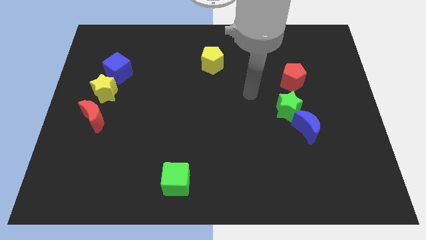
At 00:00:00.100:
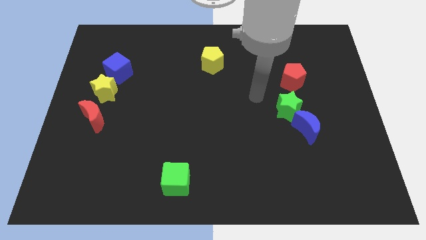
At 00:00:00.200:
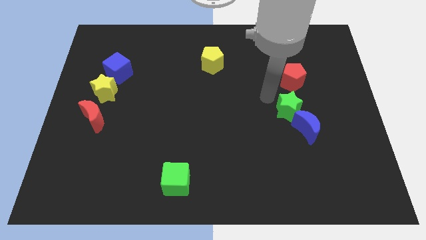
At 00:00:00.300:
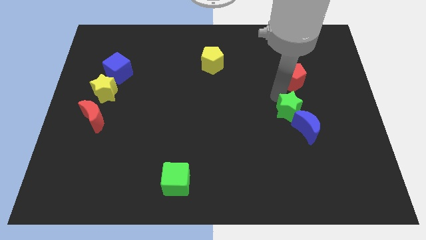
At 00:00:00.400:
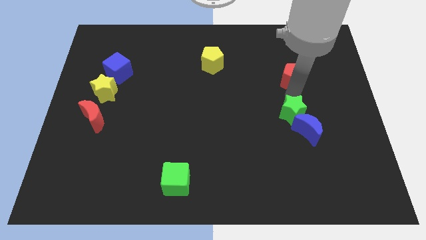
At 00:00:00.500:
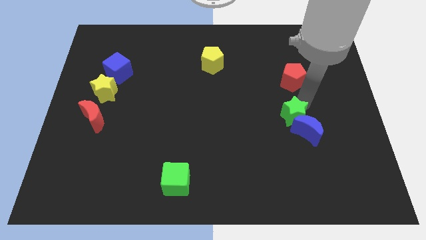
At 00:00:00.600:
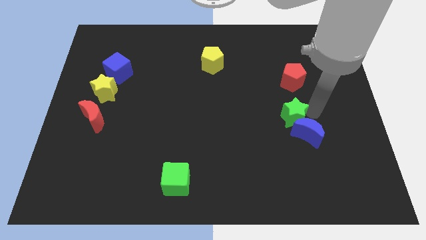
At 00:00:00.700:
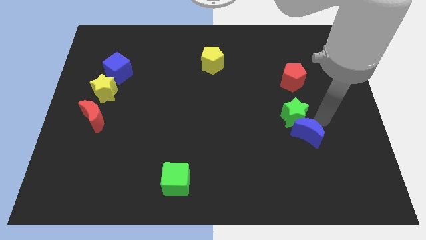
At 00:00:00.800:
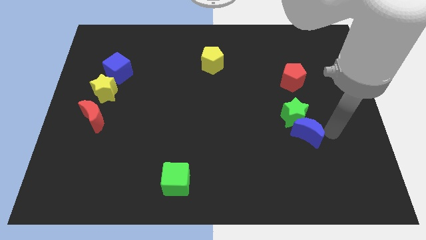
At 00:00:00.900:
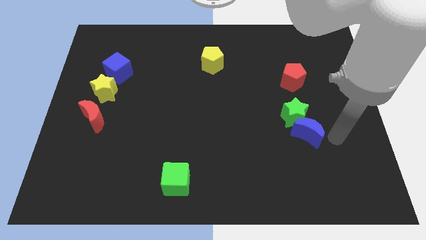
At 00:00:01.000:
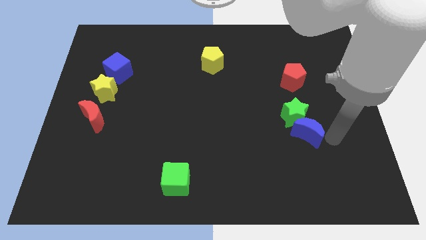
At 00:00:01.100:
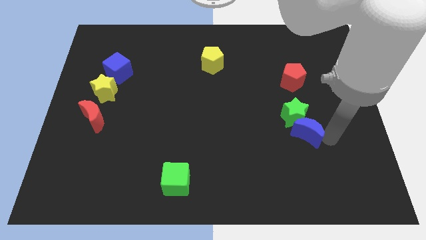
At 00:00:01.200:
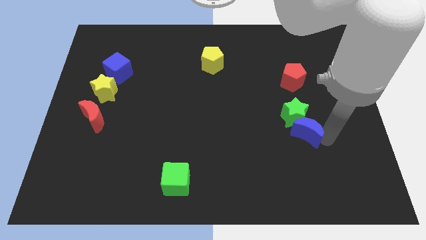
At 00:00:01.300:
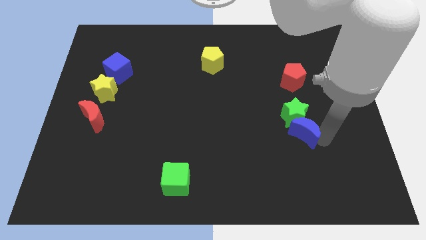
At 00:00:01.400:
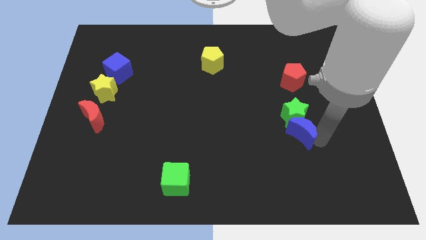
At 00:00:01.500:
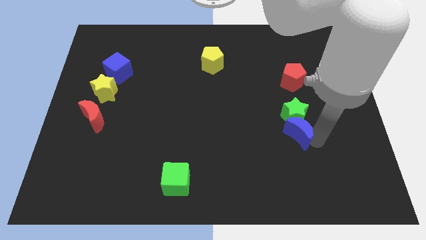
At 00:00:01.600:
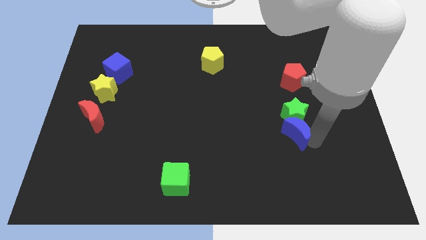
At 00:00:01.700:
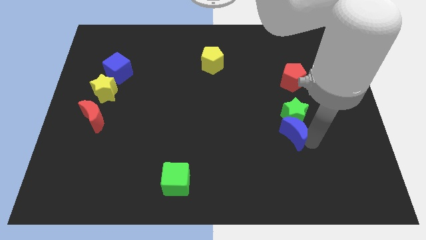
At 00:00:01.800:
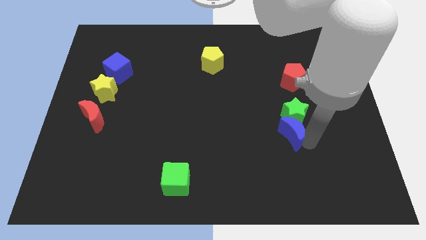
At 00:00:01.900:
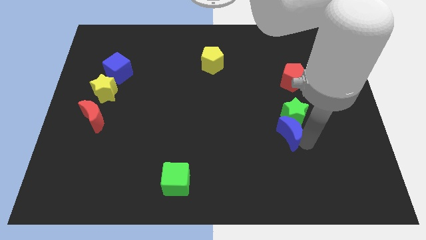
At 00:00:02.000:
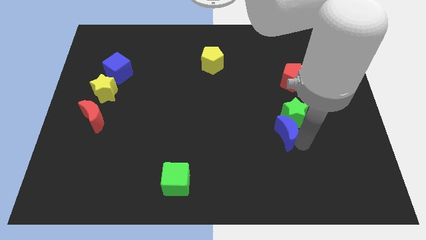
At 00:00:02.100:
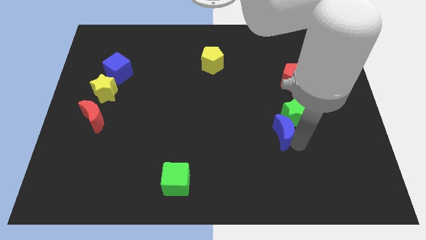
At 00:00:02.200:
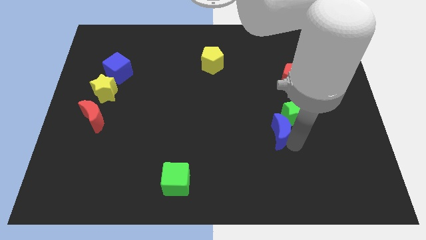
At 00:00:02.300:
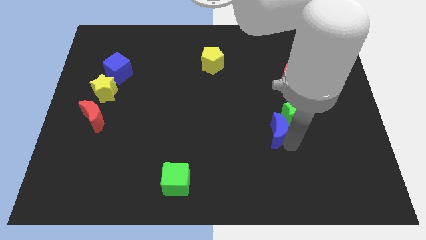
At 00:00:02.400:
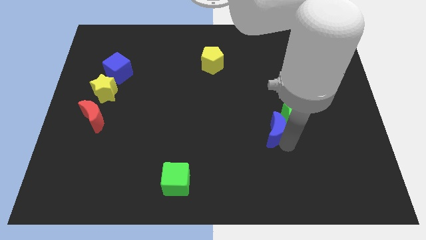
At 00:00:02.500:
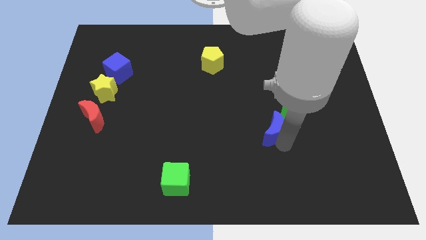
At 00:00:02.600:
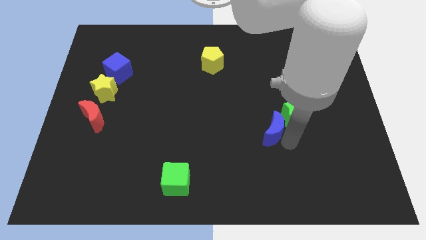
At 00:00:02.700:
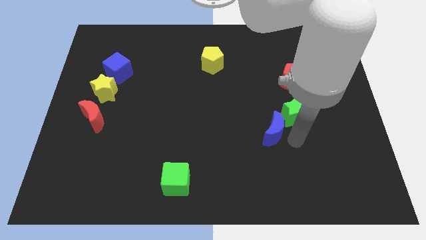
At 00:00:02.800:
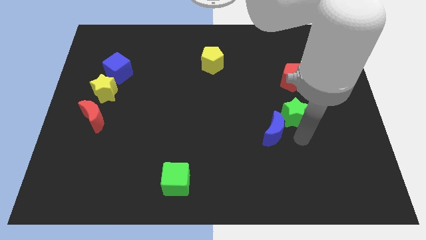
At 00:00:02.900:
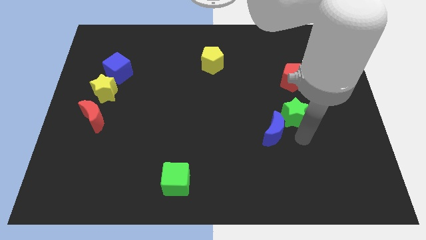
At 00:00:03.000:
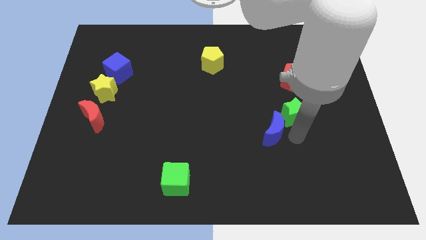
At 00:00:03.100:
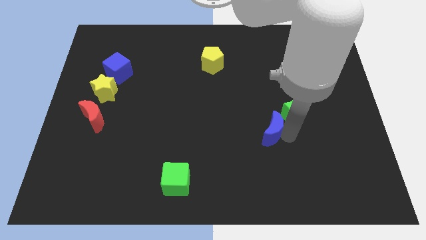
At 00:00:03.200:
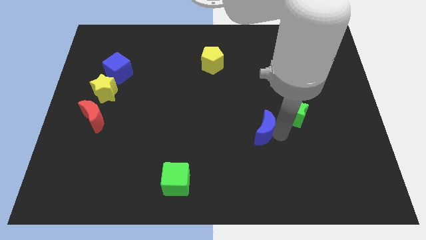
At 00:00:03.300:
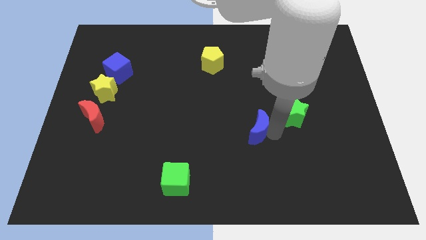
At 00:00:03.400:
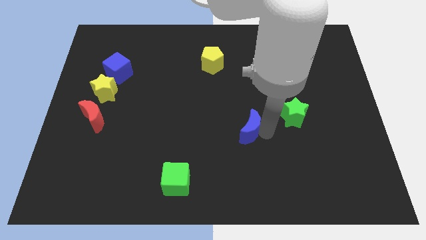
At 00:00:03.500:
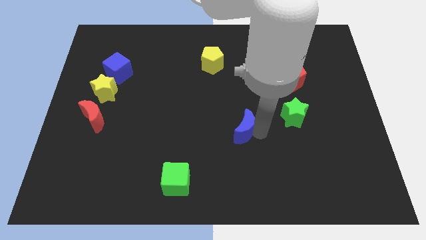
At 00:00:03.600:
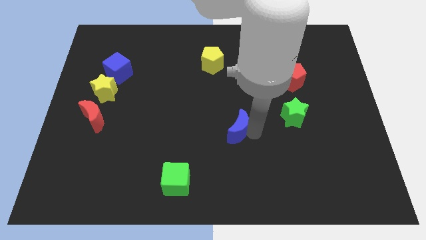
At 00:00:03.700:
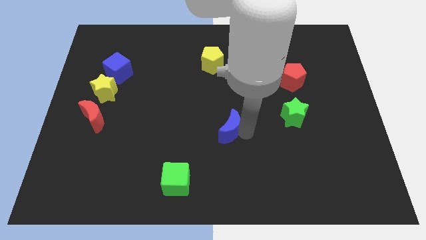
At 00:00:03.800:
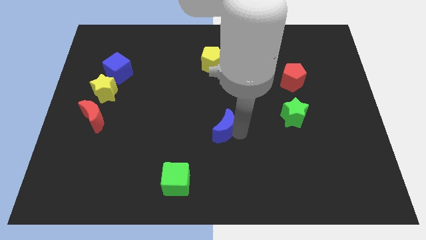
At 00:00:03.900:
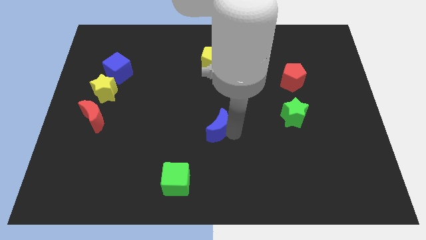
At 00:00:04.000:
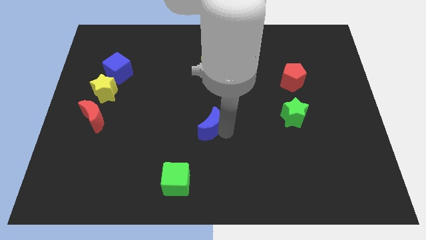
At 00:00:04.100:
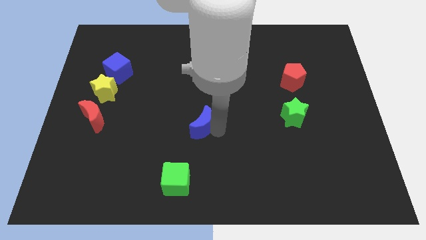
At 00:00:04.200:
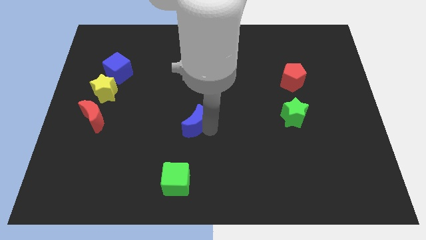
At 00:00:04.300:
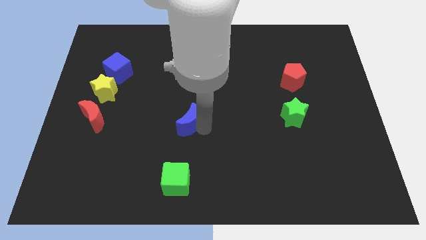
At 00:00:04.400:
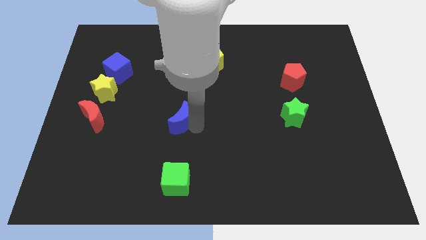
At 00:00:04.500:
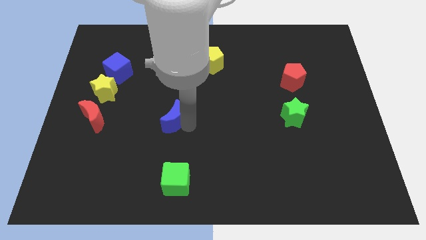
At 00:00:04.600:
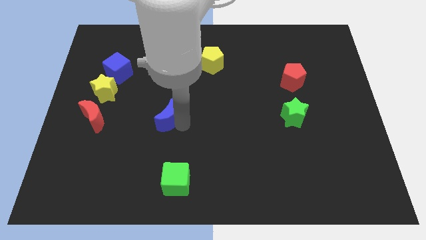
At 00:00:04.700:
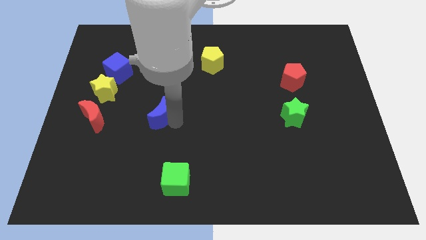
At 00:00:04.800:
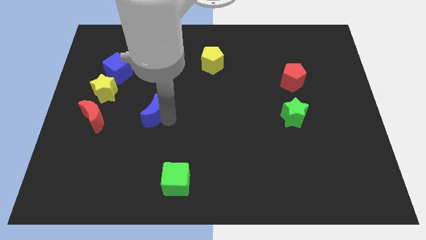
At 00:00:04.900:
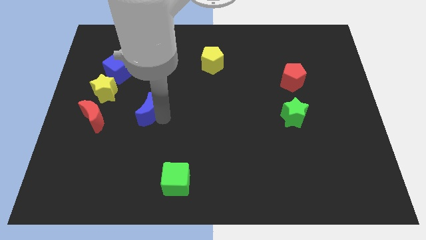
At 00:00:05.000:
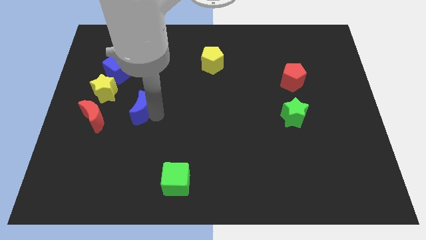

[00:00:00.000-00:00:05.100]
put the blue moon diagonally down and to the right of the yellow star

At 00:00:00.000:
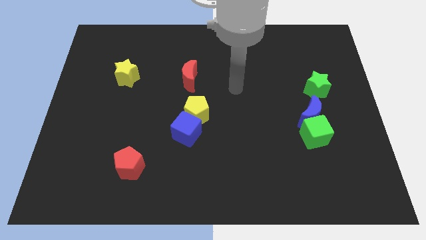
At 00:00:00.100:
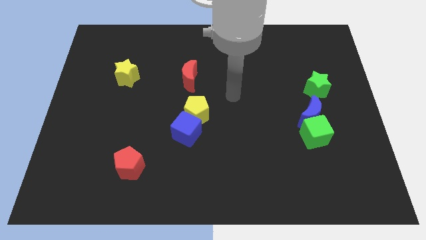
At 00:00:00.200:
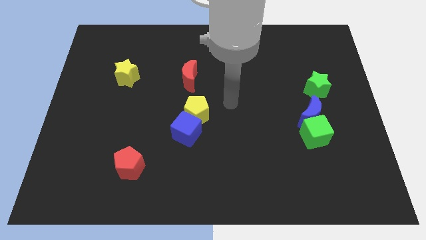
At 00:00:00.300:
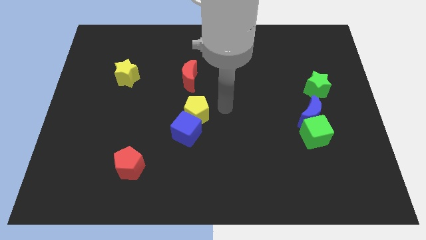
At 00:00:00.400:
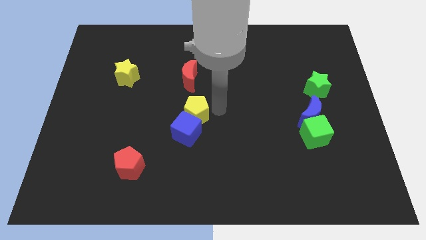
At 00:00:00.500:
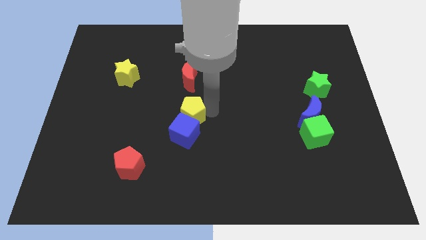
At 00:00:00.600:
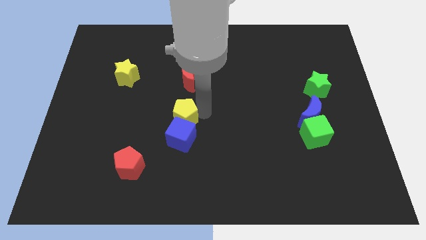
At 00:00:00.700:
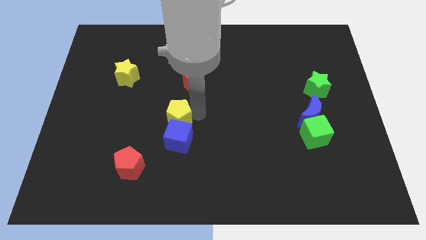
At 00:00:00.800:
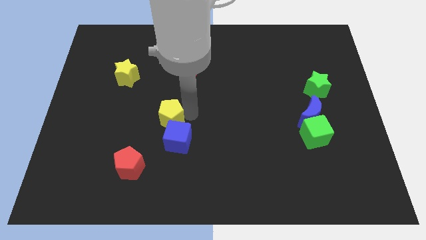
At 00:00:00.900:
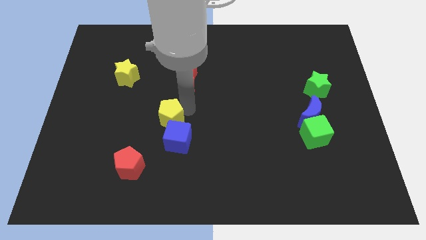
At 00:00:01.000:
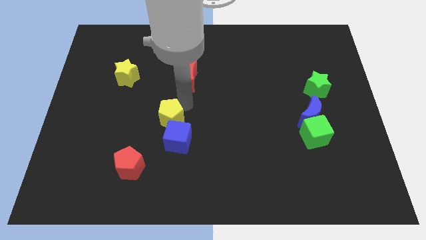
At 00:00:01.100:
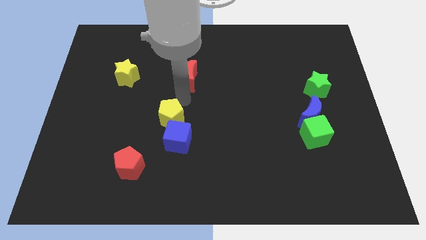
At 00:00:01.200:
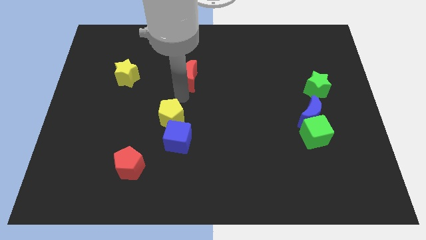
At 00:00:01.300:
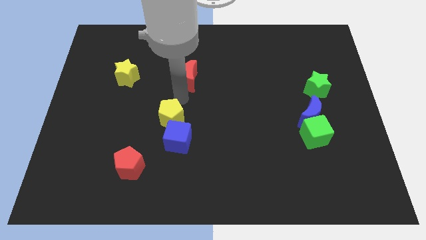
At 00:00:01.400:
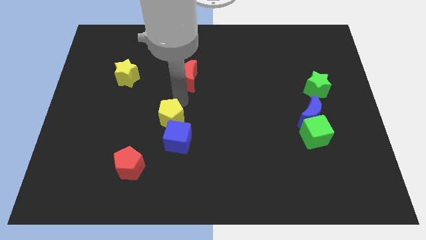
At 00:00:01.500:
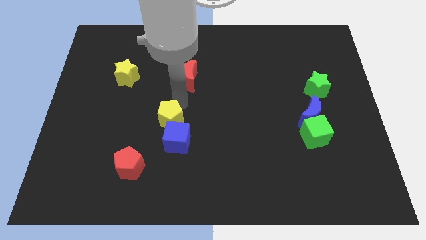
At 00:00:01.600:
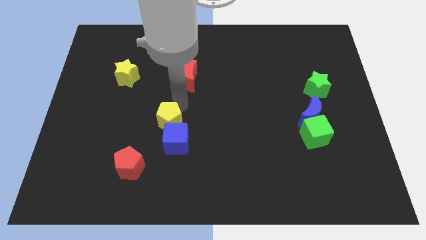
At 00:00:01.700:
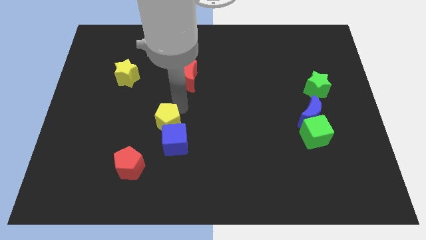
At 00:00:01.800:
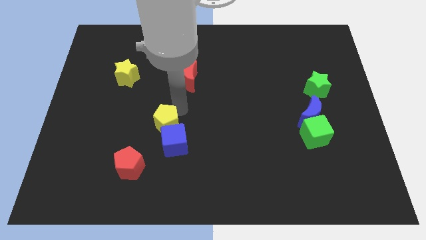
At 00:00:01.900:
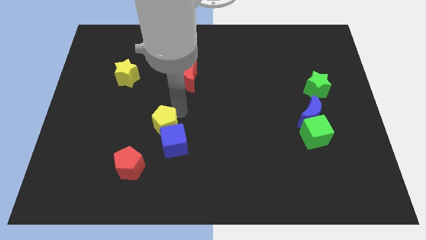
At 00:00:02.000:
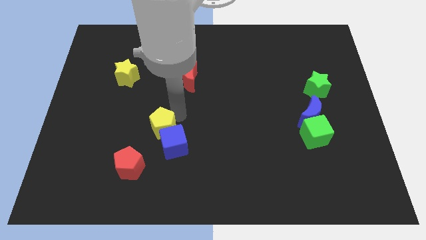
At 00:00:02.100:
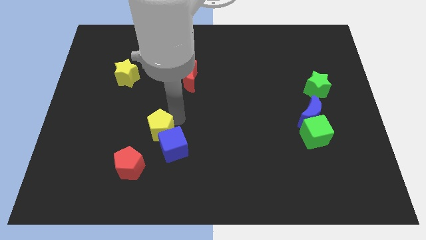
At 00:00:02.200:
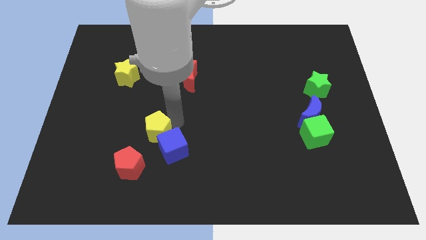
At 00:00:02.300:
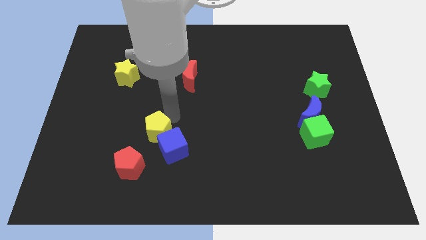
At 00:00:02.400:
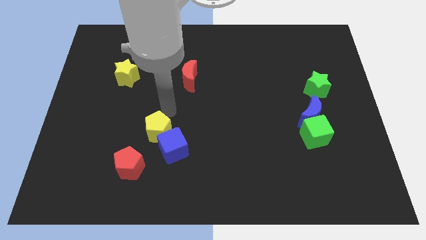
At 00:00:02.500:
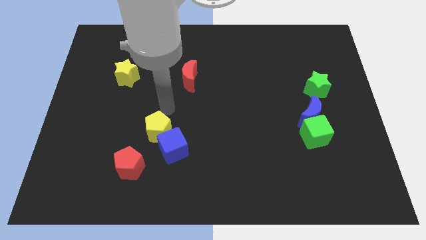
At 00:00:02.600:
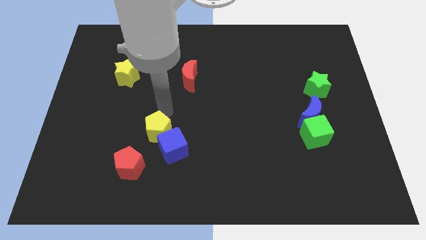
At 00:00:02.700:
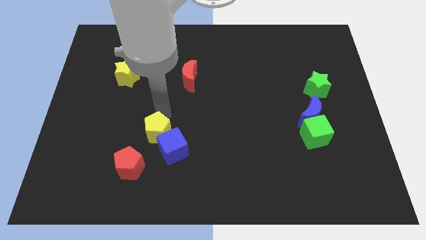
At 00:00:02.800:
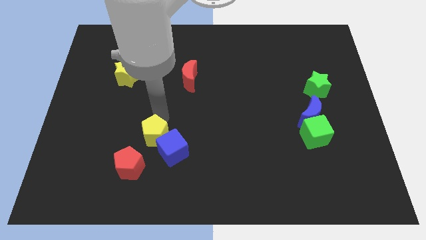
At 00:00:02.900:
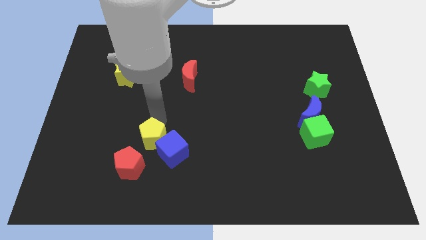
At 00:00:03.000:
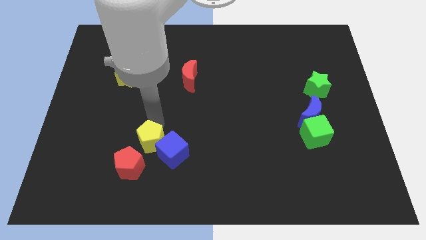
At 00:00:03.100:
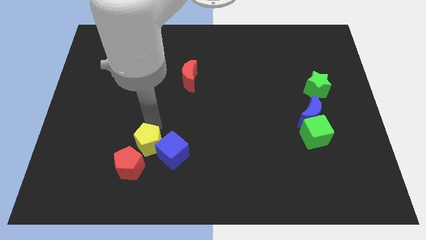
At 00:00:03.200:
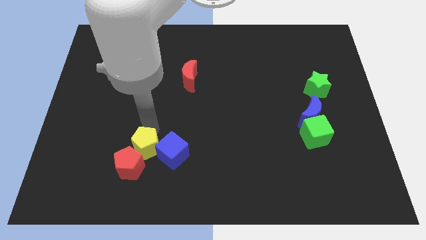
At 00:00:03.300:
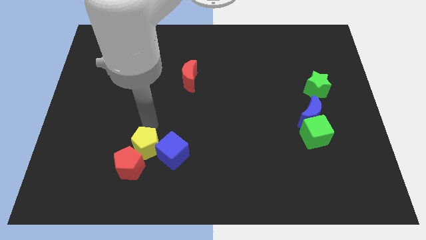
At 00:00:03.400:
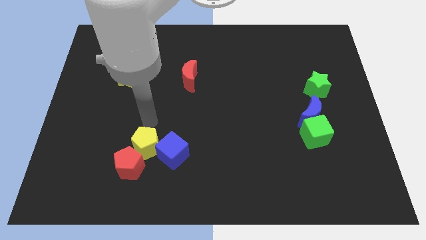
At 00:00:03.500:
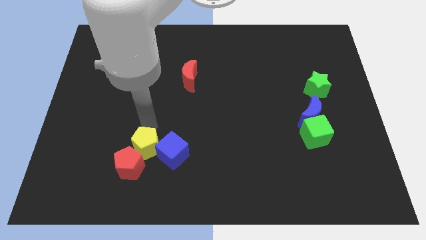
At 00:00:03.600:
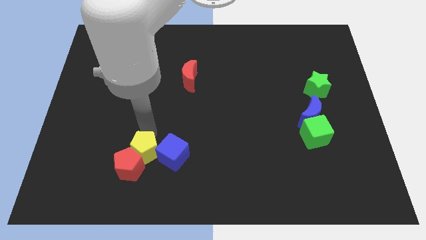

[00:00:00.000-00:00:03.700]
slide the yellow pentagon diagonally down and to the left of the blue cube
